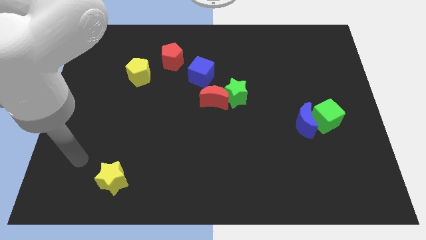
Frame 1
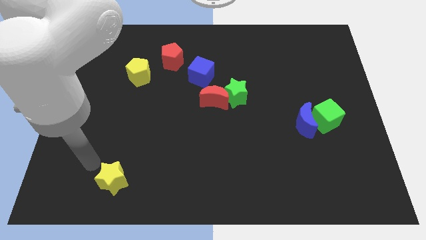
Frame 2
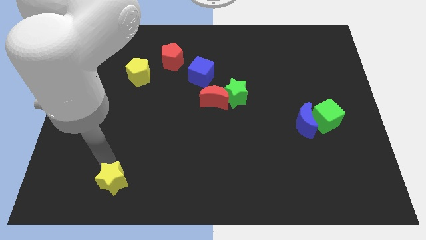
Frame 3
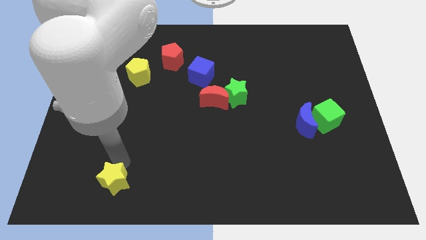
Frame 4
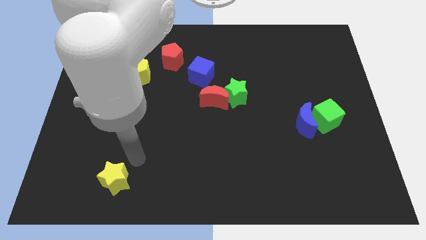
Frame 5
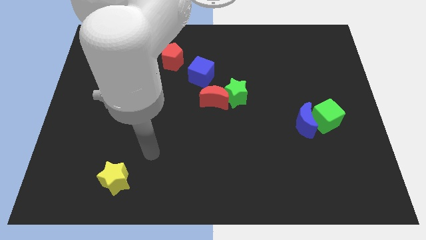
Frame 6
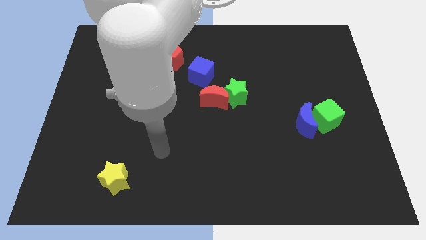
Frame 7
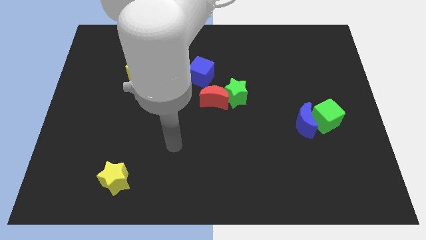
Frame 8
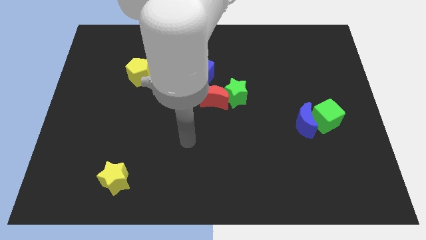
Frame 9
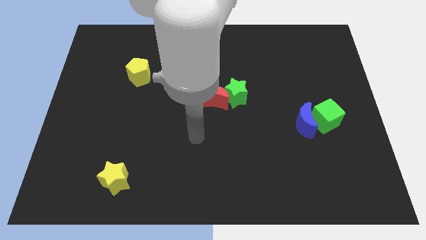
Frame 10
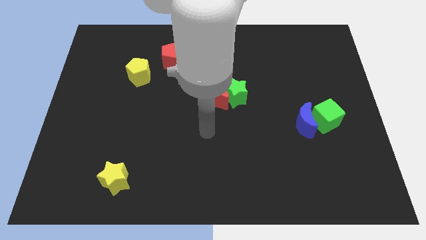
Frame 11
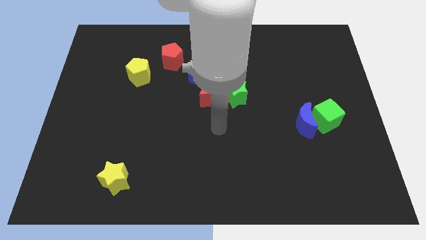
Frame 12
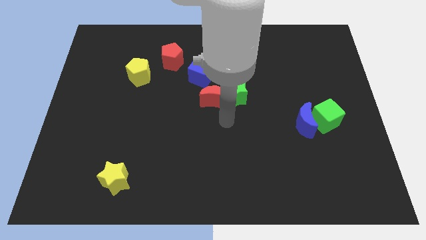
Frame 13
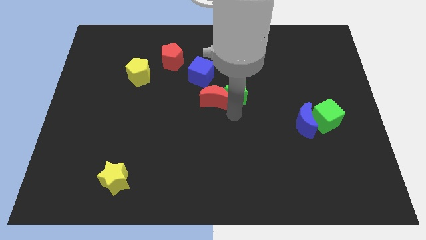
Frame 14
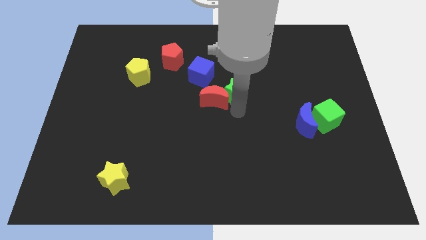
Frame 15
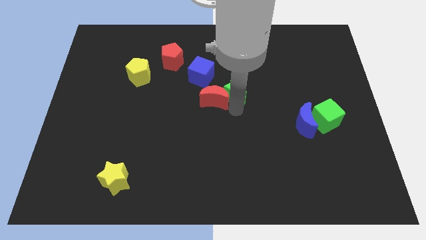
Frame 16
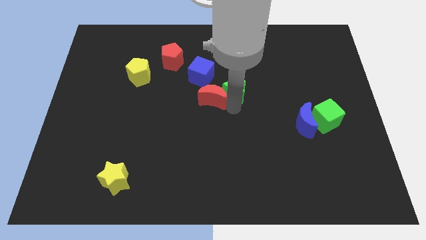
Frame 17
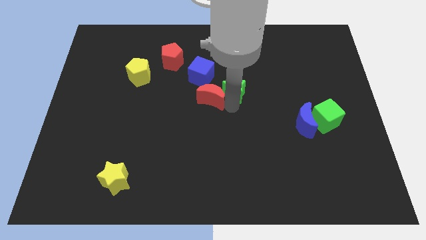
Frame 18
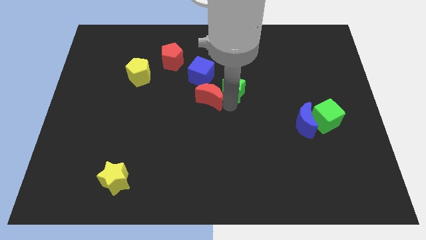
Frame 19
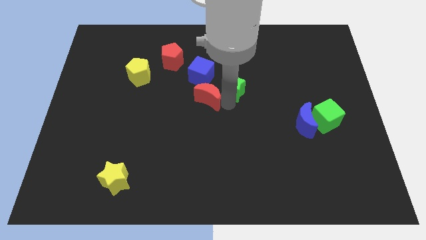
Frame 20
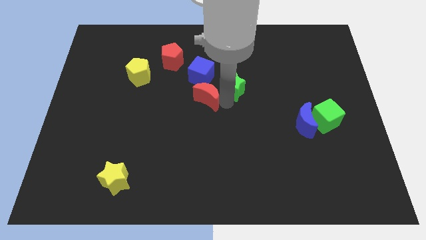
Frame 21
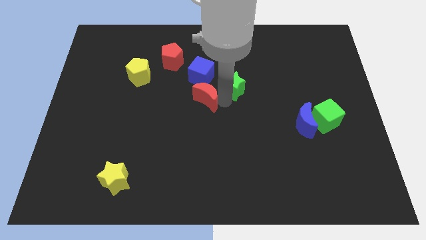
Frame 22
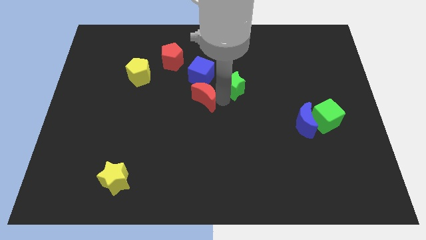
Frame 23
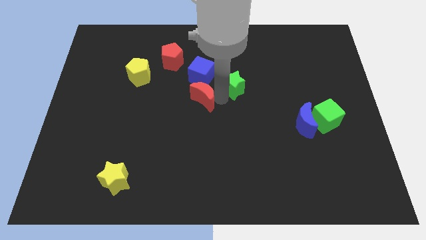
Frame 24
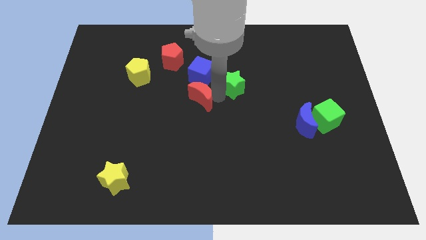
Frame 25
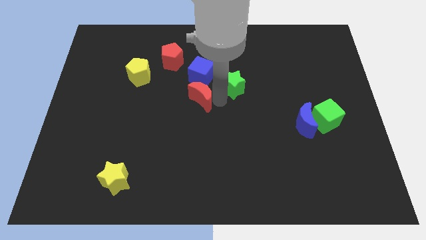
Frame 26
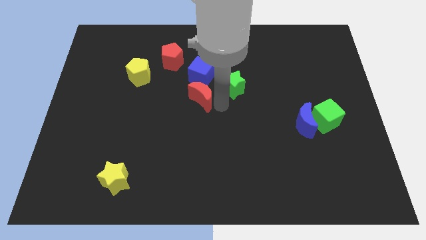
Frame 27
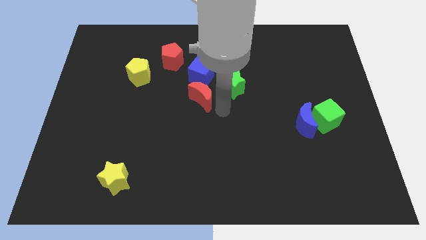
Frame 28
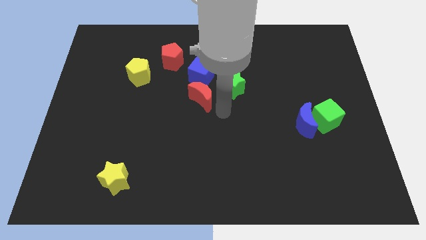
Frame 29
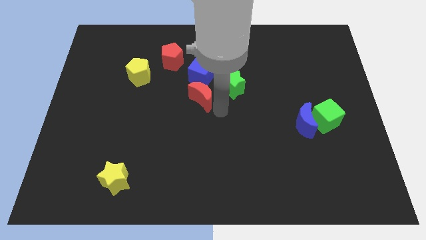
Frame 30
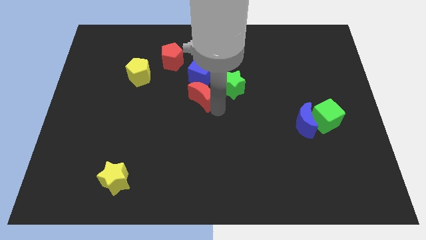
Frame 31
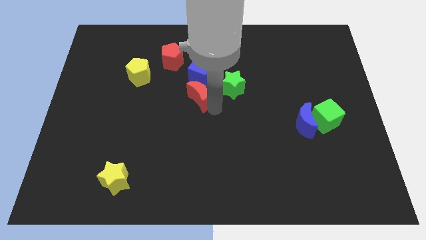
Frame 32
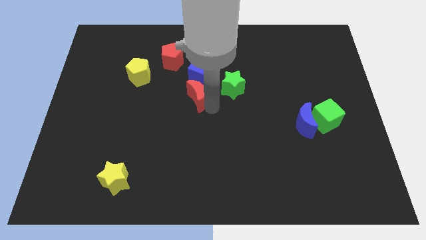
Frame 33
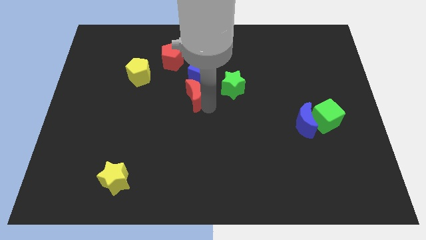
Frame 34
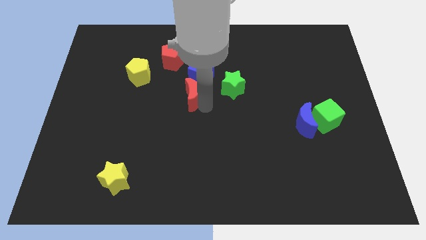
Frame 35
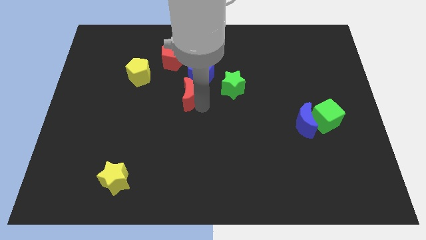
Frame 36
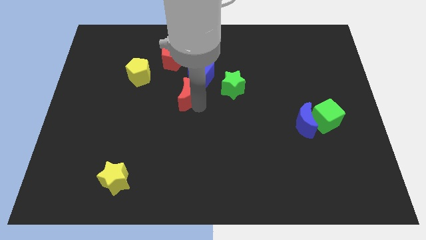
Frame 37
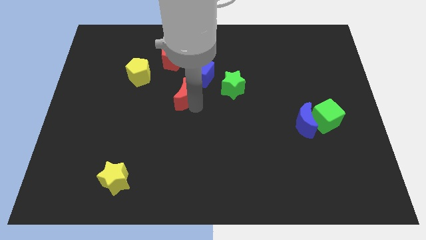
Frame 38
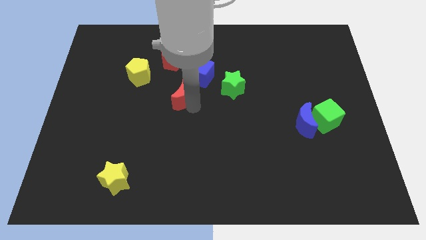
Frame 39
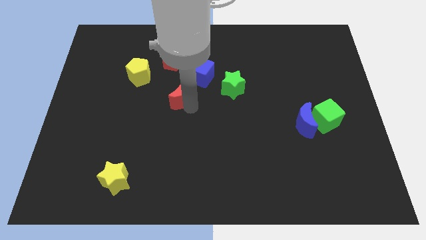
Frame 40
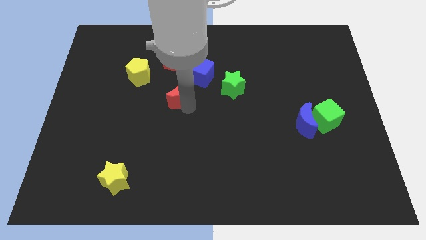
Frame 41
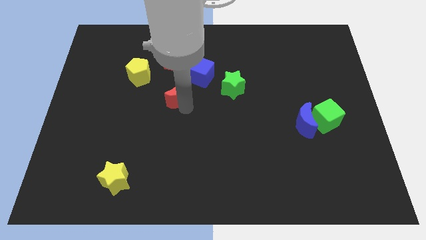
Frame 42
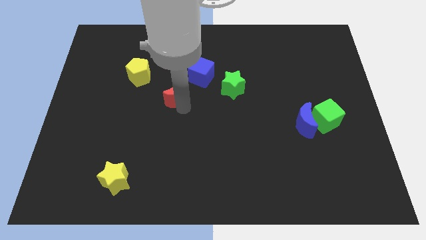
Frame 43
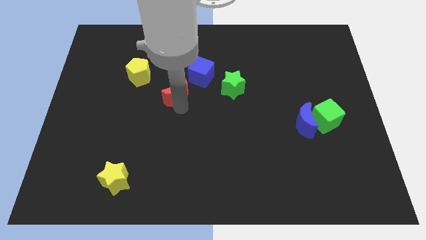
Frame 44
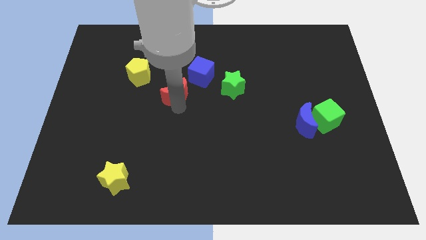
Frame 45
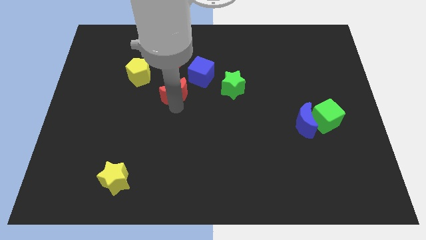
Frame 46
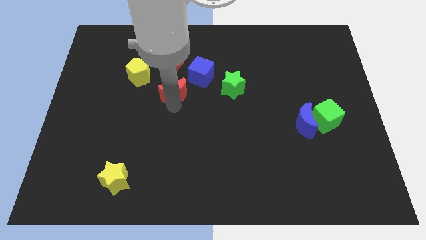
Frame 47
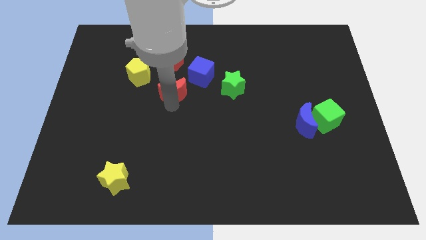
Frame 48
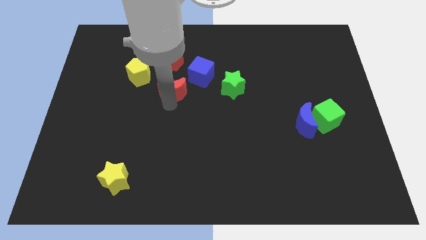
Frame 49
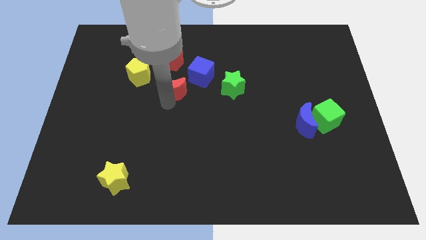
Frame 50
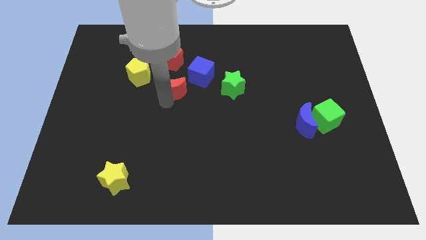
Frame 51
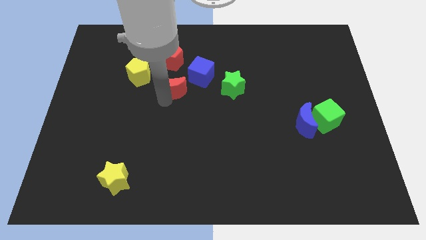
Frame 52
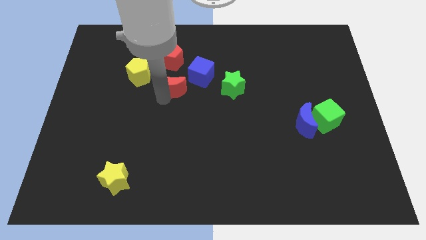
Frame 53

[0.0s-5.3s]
slide the red moon left of the blue cube

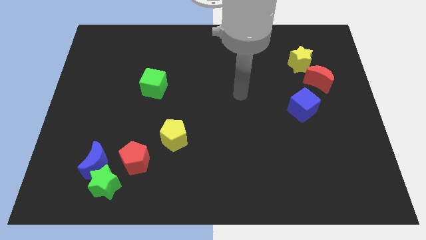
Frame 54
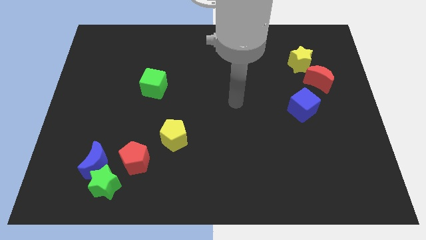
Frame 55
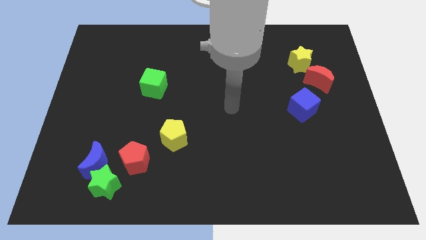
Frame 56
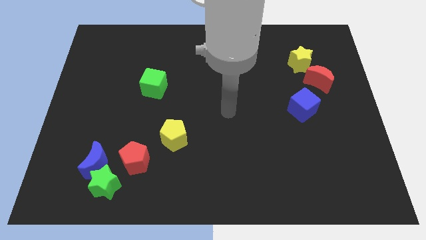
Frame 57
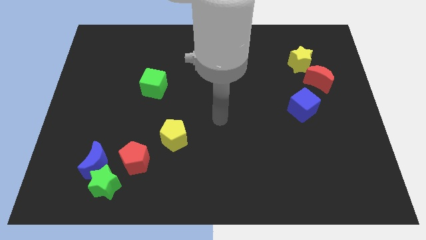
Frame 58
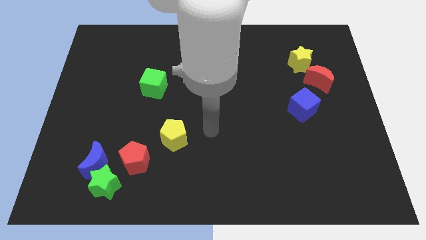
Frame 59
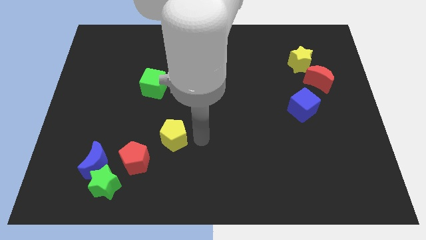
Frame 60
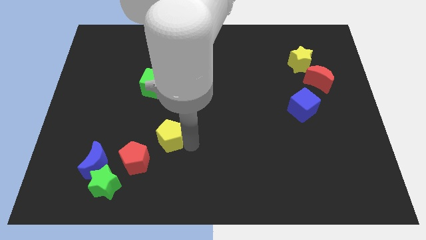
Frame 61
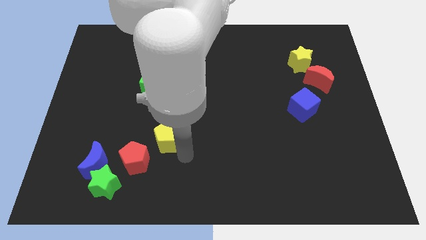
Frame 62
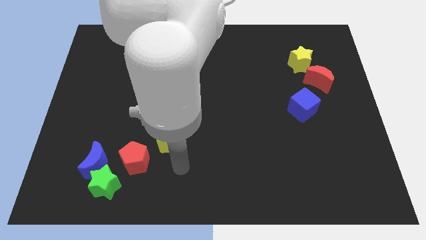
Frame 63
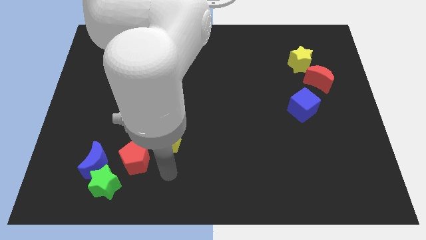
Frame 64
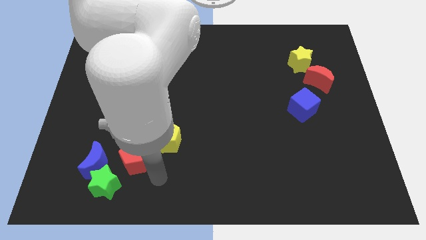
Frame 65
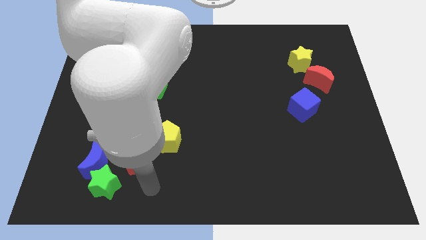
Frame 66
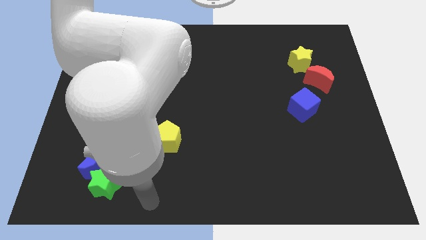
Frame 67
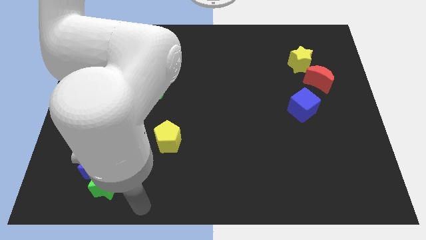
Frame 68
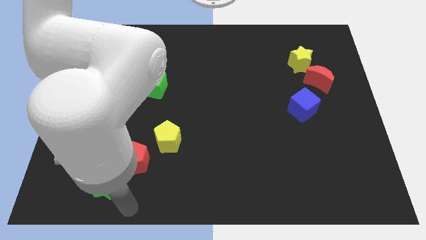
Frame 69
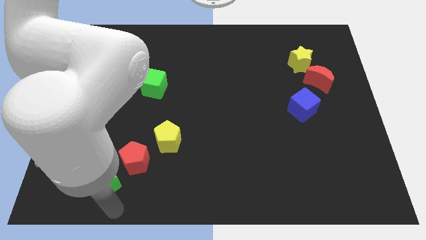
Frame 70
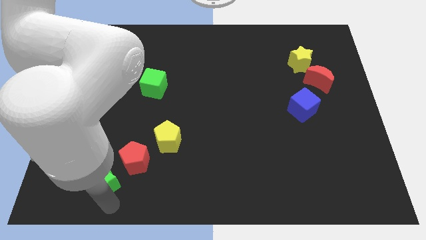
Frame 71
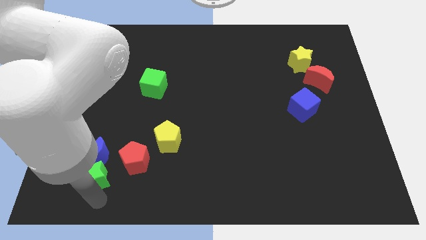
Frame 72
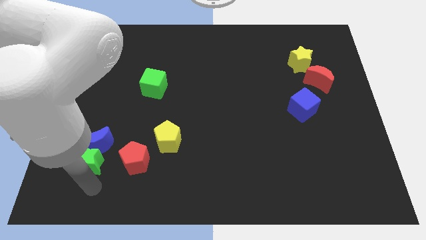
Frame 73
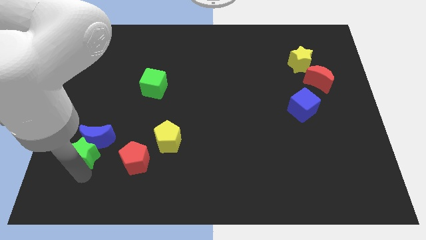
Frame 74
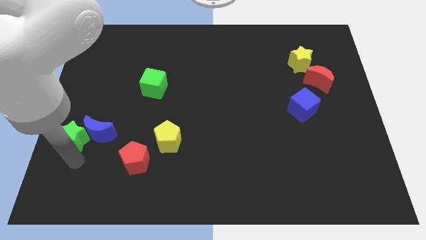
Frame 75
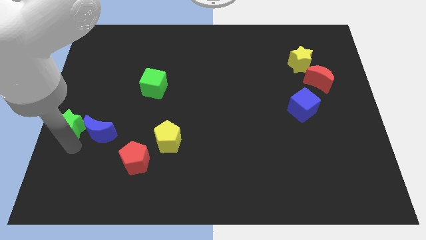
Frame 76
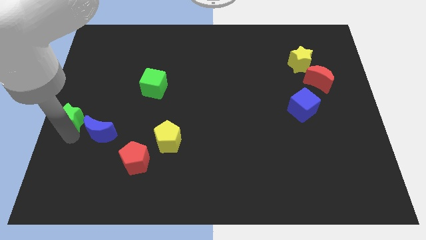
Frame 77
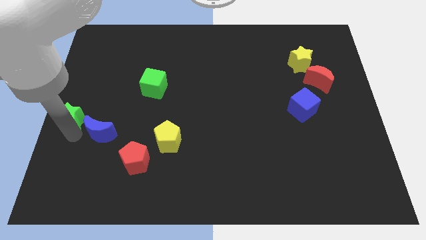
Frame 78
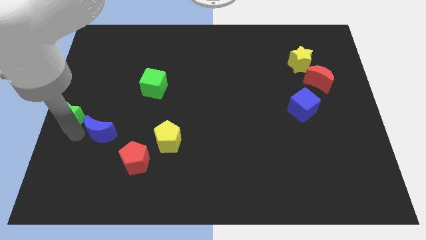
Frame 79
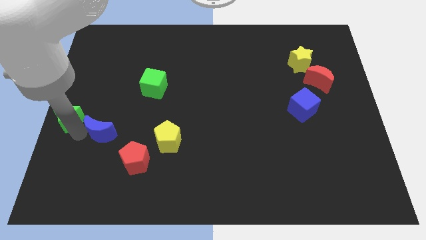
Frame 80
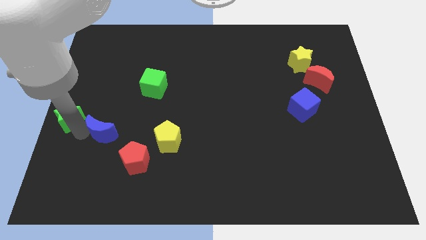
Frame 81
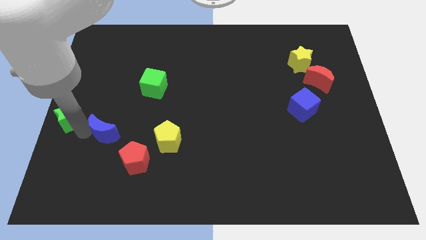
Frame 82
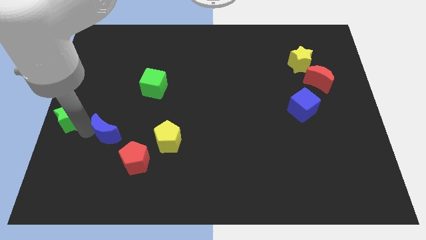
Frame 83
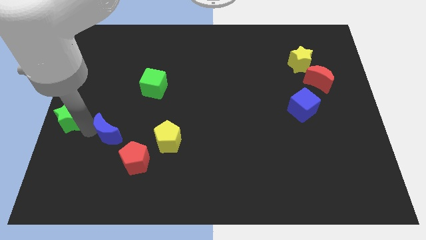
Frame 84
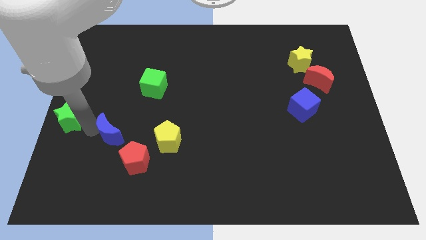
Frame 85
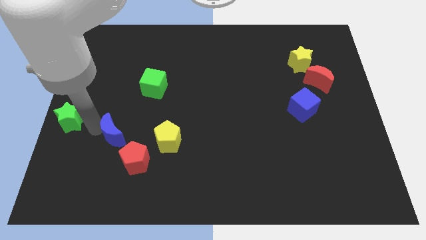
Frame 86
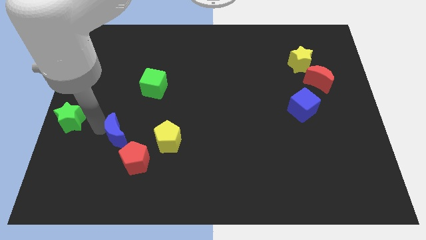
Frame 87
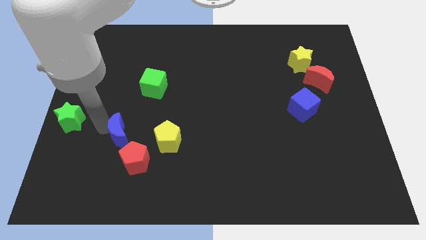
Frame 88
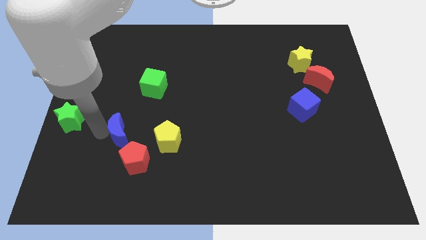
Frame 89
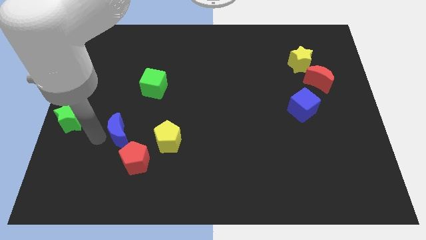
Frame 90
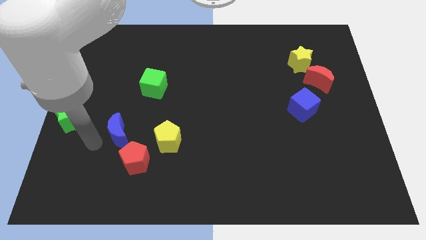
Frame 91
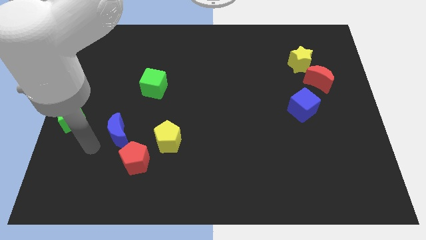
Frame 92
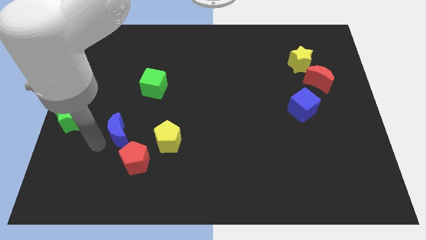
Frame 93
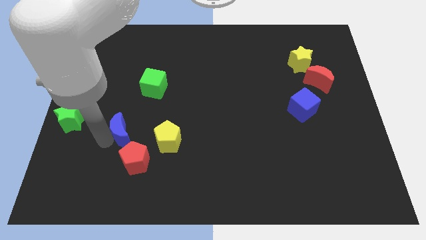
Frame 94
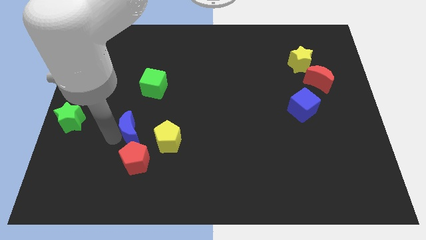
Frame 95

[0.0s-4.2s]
slide the blue moon diagonally up and to the left of the yellow pentagon
